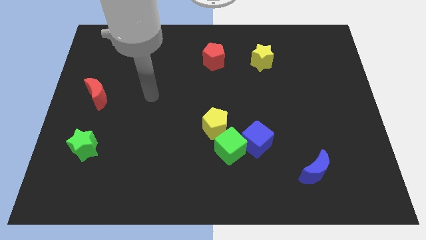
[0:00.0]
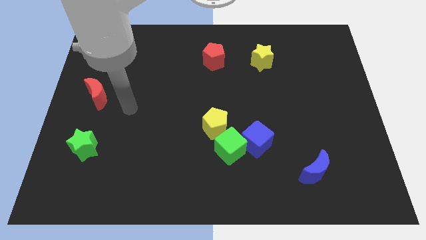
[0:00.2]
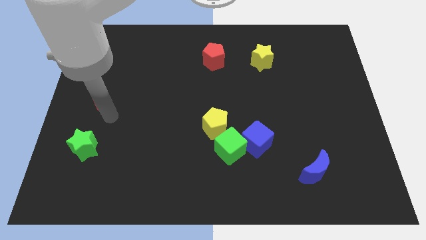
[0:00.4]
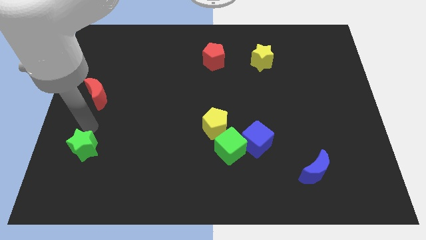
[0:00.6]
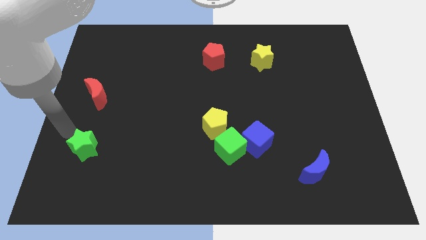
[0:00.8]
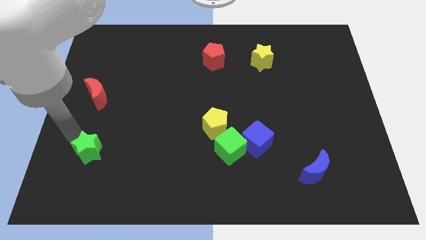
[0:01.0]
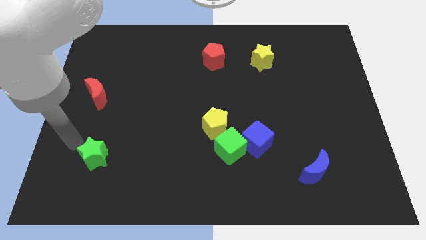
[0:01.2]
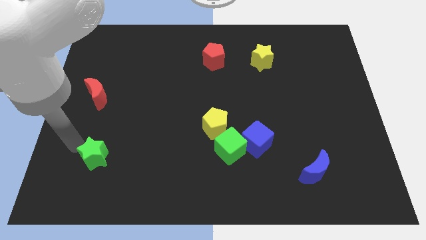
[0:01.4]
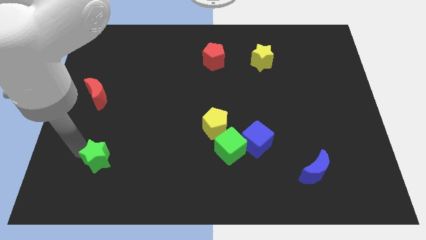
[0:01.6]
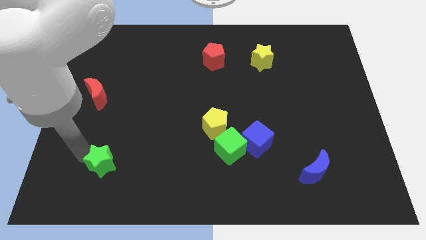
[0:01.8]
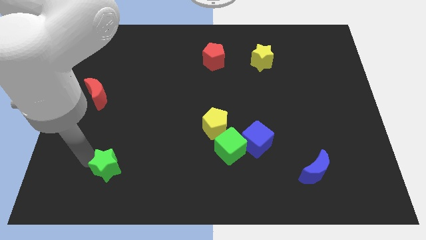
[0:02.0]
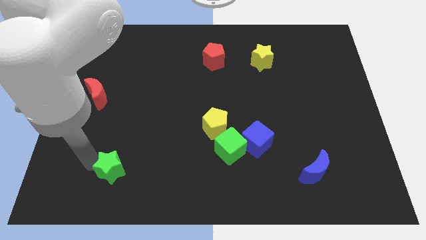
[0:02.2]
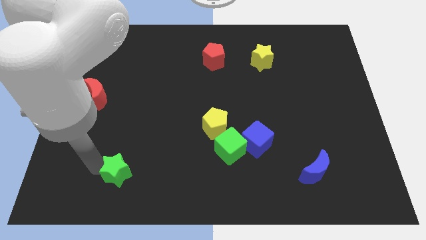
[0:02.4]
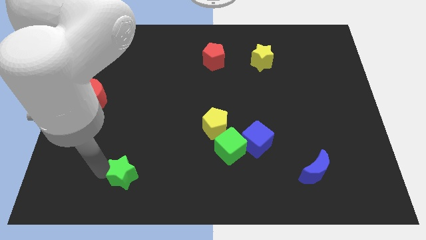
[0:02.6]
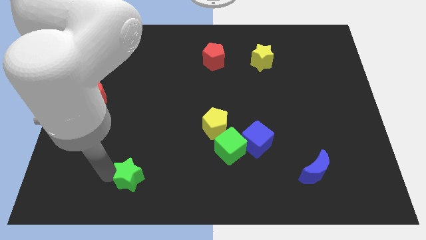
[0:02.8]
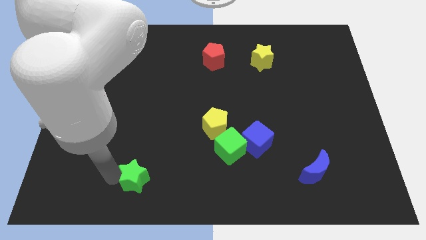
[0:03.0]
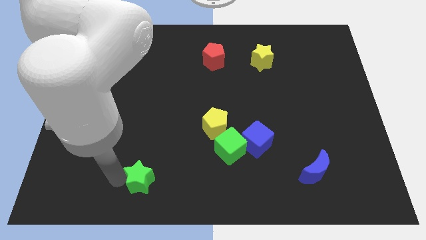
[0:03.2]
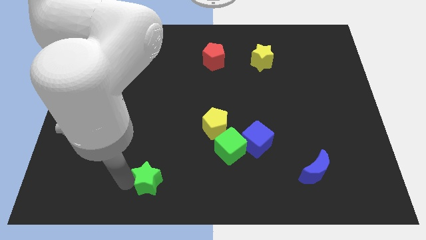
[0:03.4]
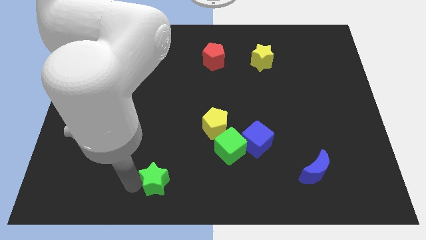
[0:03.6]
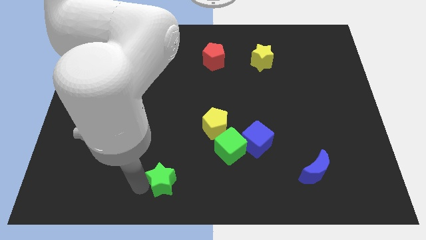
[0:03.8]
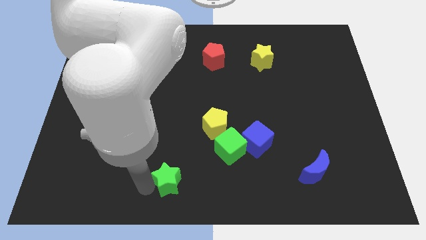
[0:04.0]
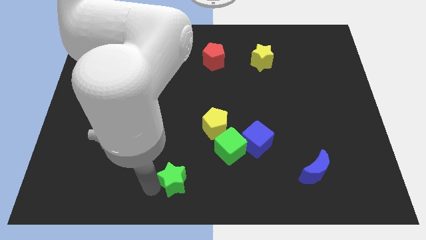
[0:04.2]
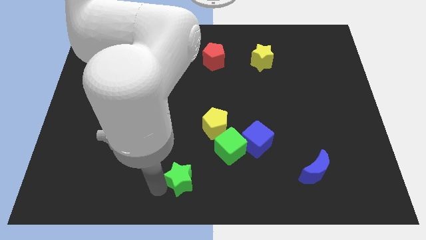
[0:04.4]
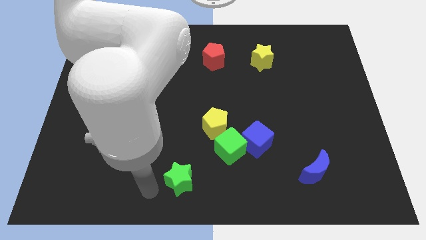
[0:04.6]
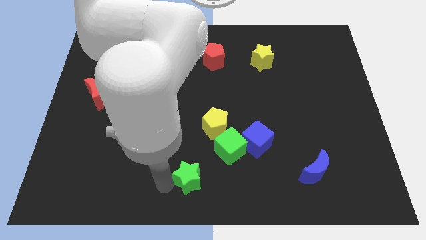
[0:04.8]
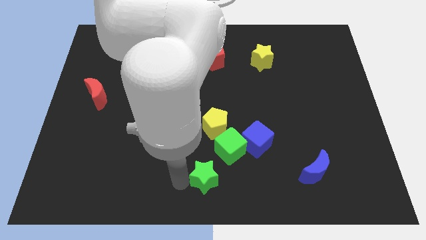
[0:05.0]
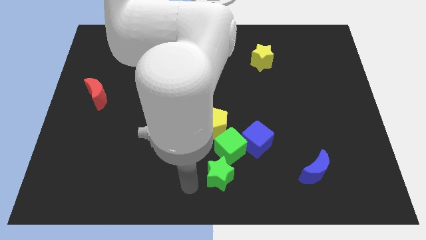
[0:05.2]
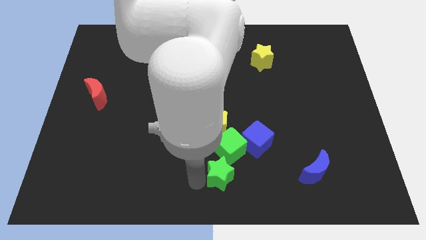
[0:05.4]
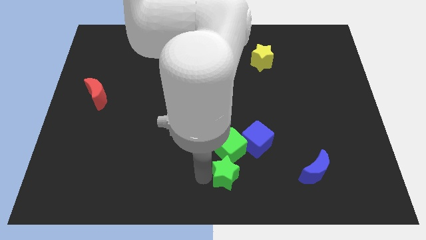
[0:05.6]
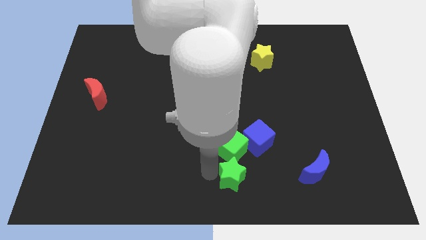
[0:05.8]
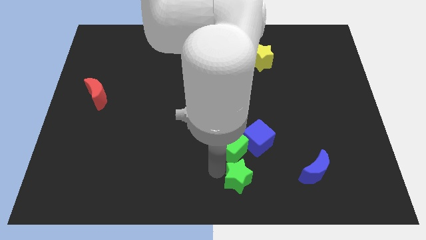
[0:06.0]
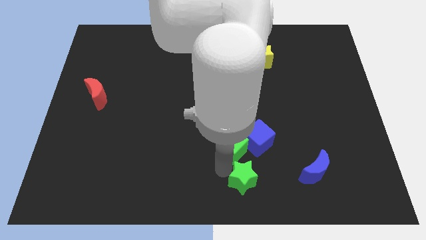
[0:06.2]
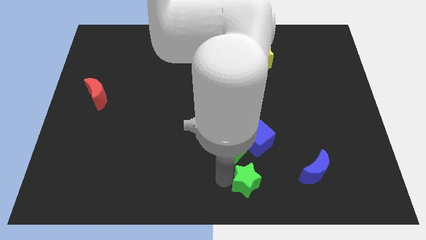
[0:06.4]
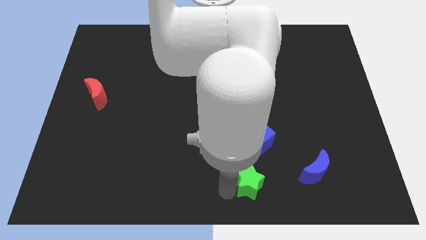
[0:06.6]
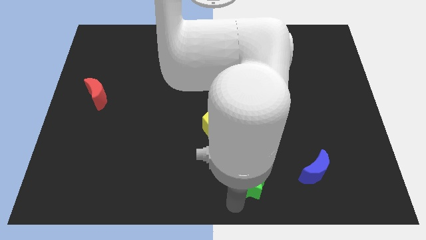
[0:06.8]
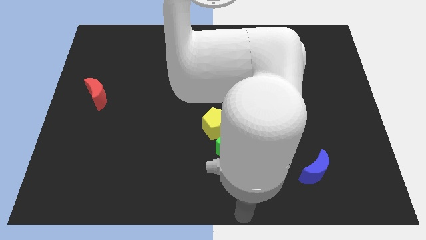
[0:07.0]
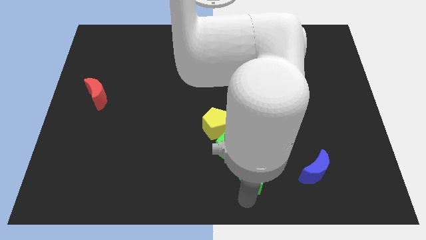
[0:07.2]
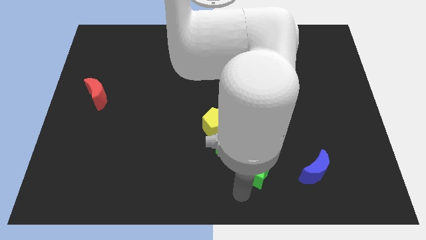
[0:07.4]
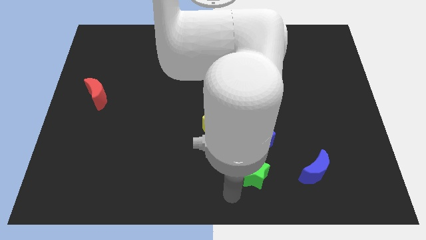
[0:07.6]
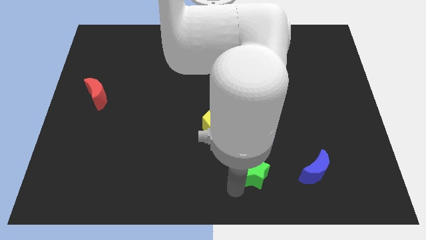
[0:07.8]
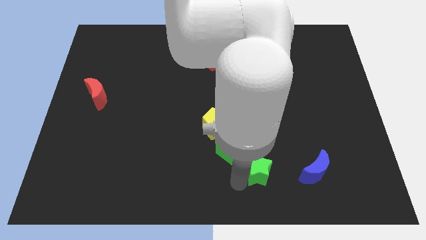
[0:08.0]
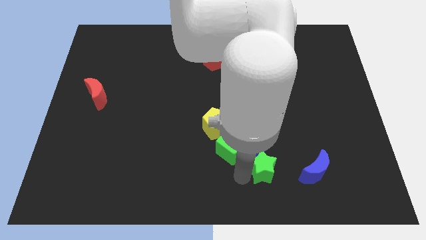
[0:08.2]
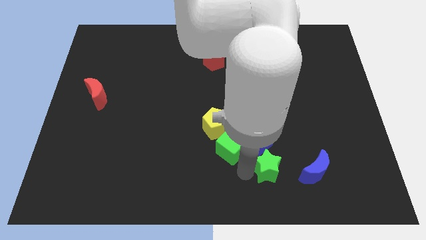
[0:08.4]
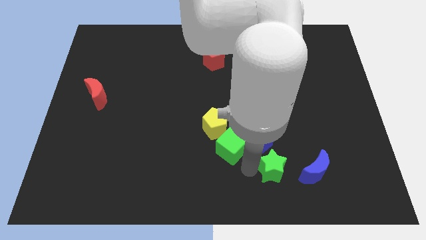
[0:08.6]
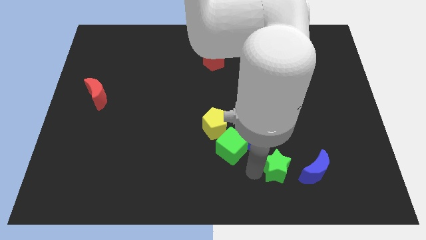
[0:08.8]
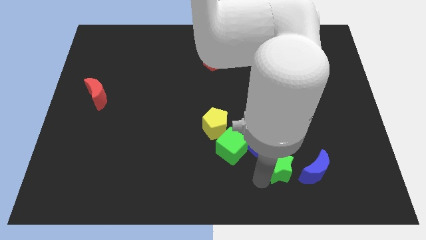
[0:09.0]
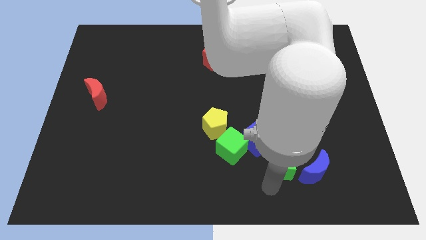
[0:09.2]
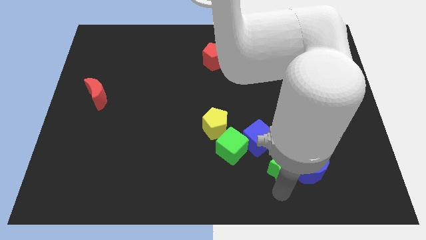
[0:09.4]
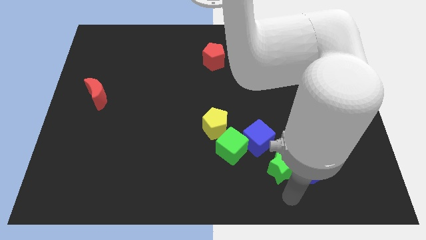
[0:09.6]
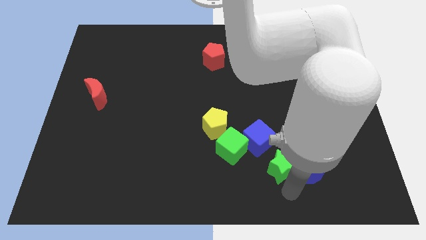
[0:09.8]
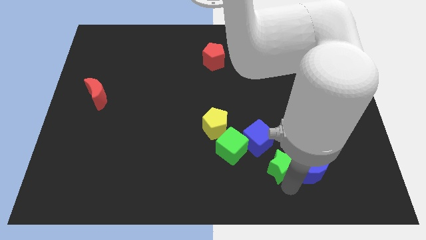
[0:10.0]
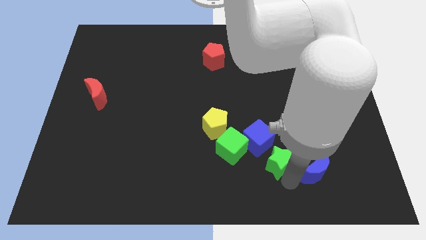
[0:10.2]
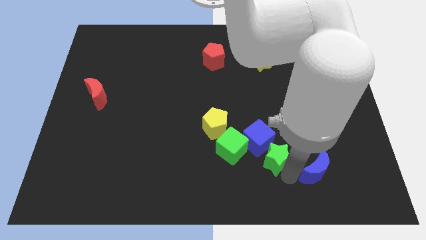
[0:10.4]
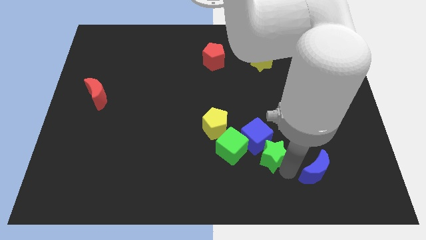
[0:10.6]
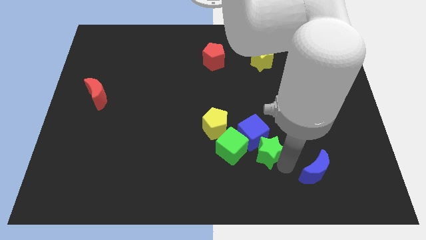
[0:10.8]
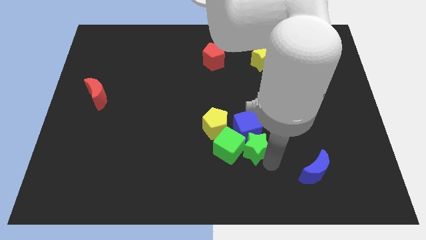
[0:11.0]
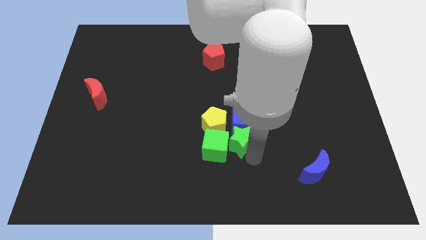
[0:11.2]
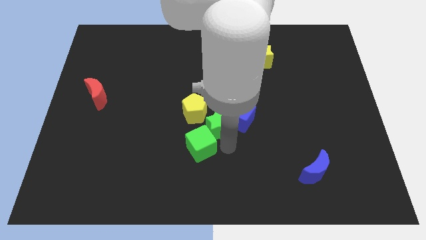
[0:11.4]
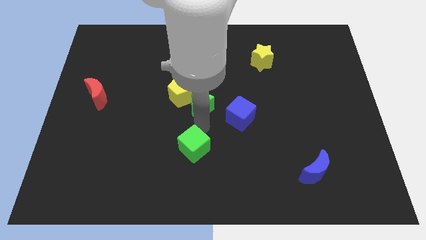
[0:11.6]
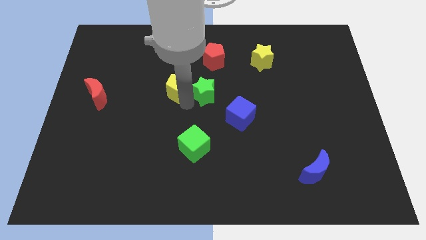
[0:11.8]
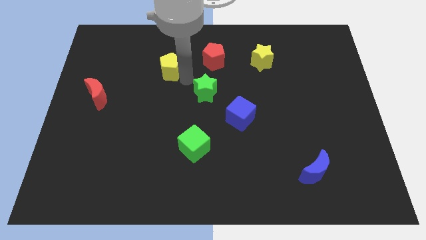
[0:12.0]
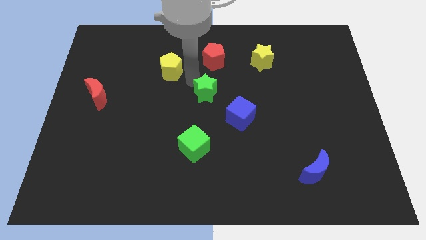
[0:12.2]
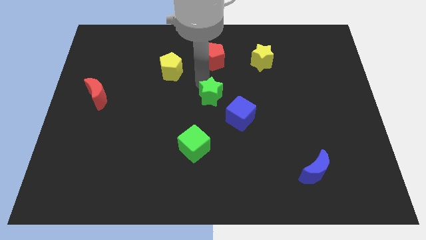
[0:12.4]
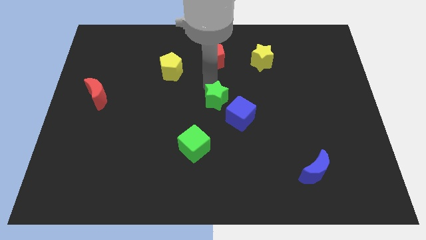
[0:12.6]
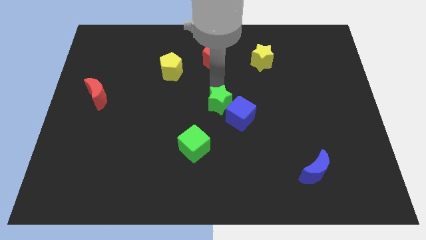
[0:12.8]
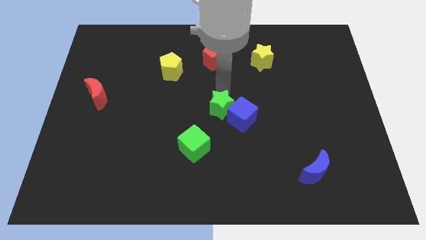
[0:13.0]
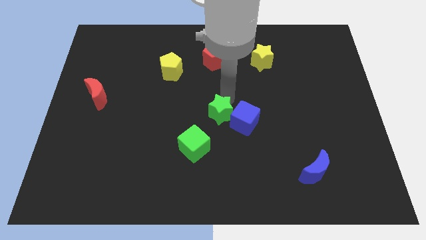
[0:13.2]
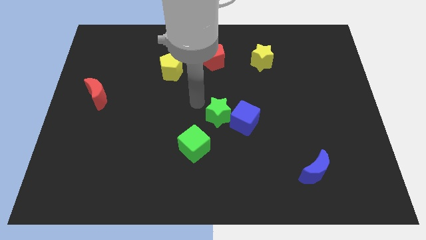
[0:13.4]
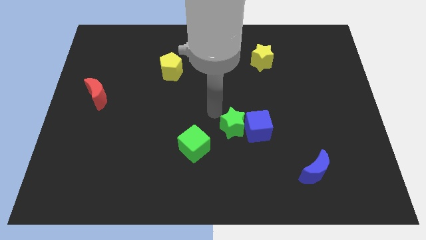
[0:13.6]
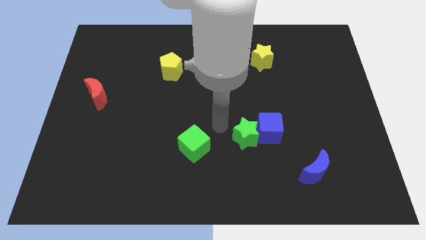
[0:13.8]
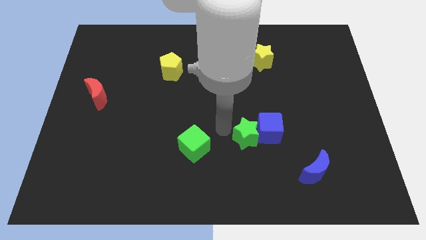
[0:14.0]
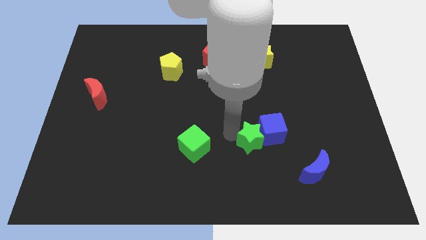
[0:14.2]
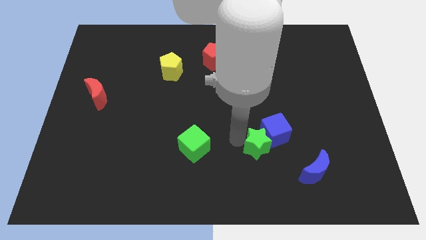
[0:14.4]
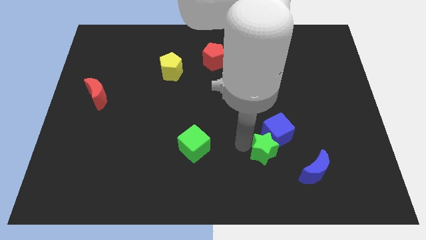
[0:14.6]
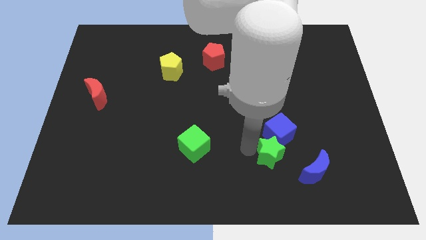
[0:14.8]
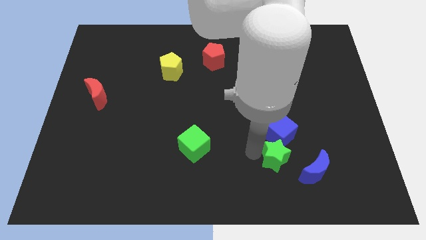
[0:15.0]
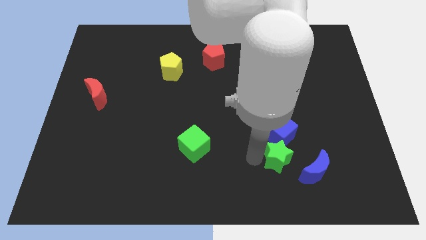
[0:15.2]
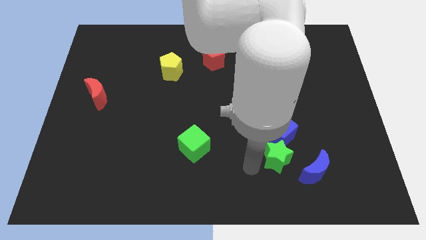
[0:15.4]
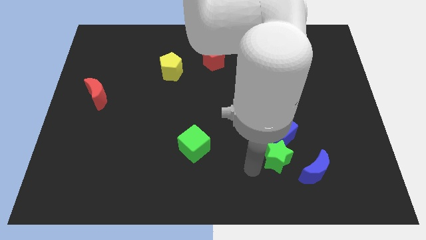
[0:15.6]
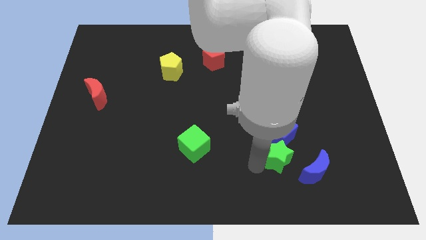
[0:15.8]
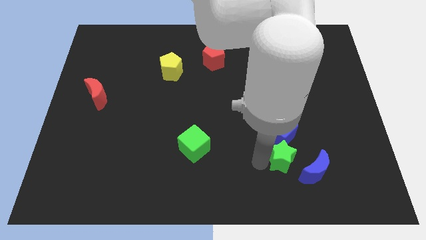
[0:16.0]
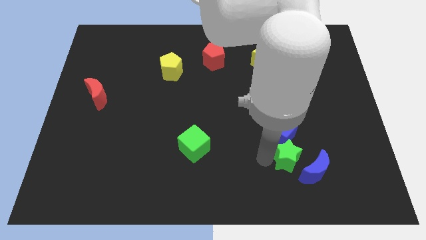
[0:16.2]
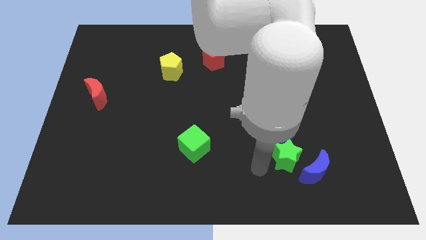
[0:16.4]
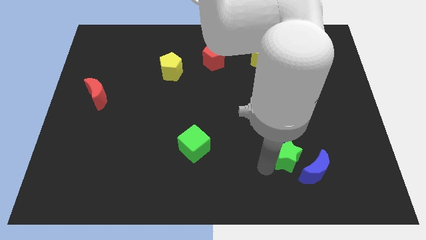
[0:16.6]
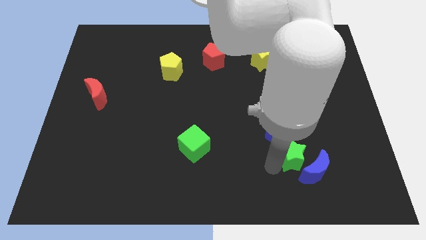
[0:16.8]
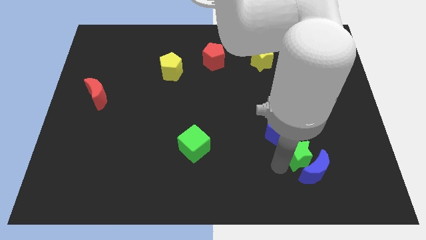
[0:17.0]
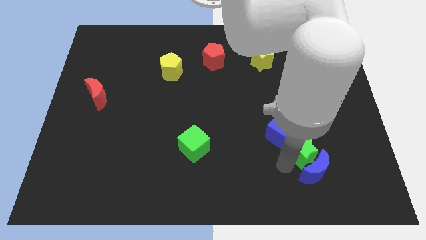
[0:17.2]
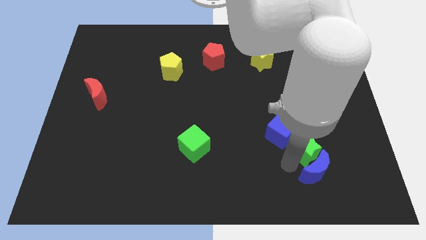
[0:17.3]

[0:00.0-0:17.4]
put the green star to the top right side of the blue moon
